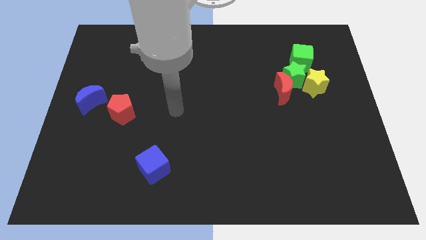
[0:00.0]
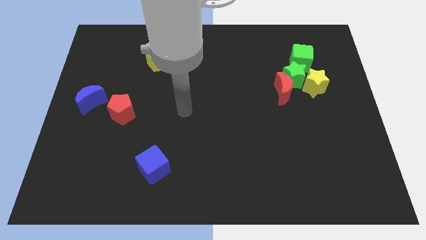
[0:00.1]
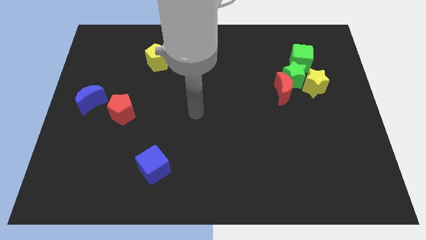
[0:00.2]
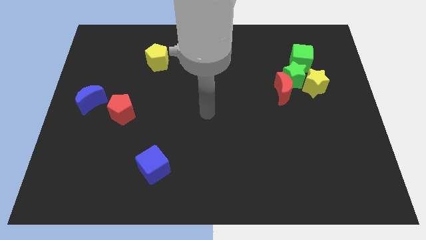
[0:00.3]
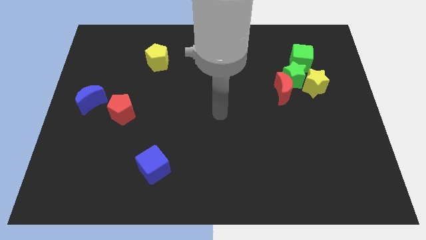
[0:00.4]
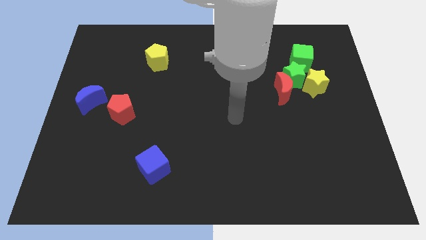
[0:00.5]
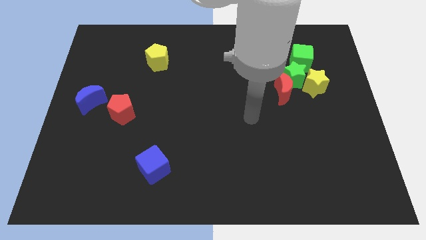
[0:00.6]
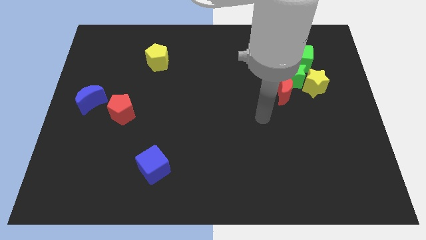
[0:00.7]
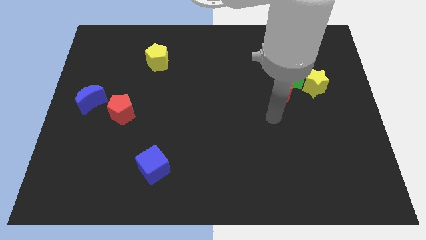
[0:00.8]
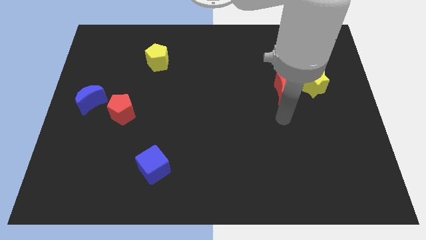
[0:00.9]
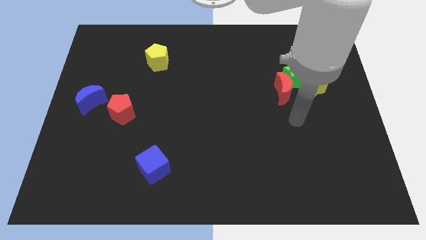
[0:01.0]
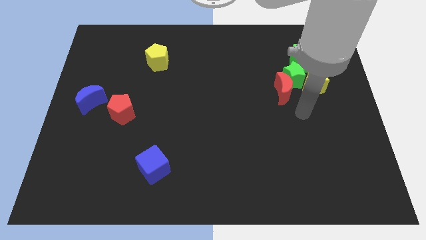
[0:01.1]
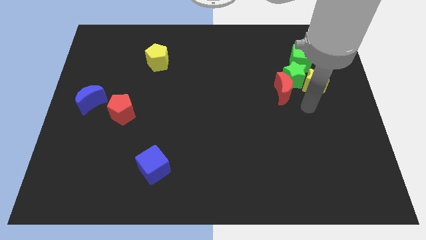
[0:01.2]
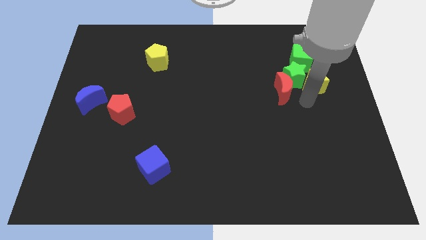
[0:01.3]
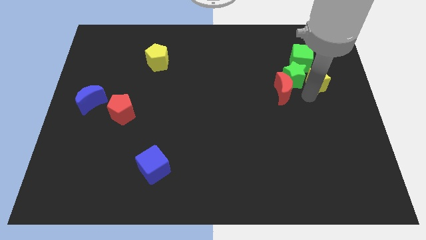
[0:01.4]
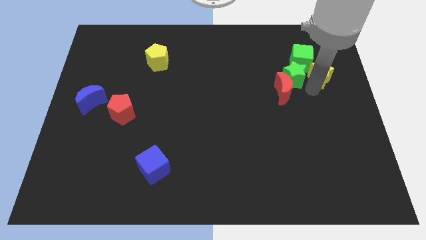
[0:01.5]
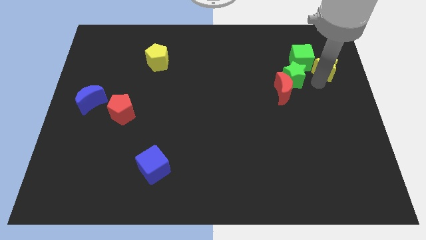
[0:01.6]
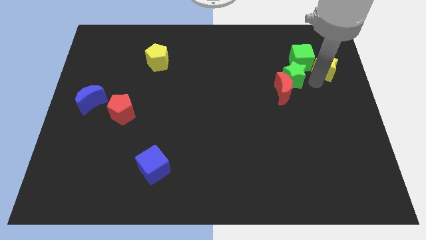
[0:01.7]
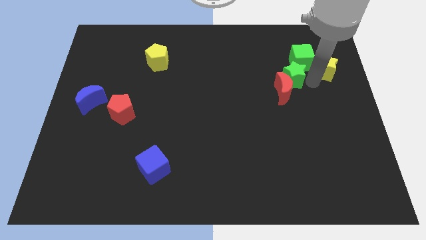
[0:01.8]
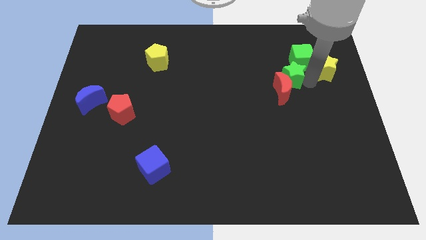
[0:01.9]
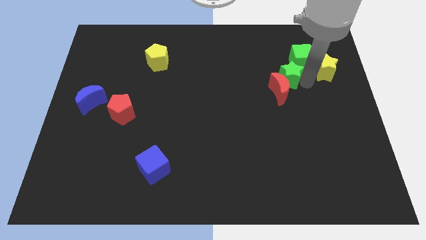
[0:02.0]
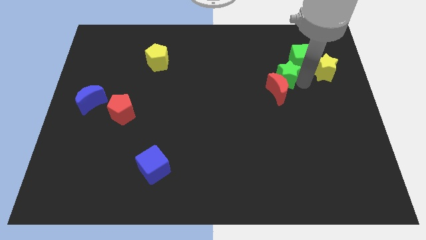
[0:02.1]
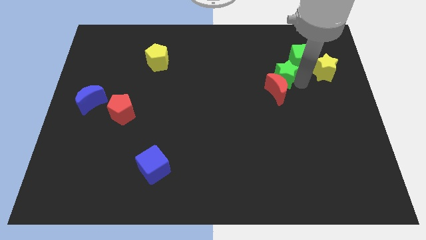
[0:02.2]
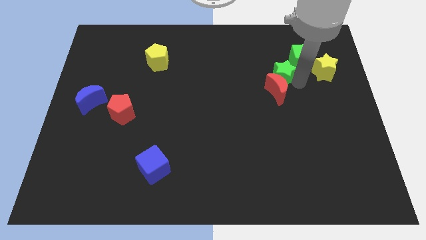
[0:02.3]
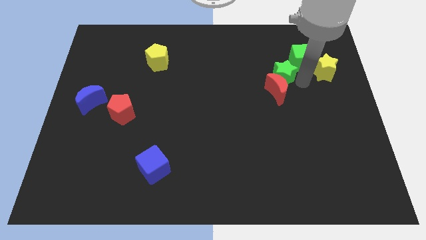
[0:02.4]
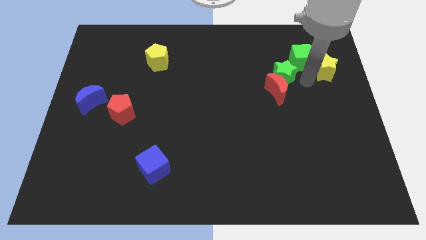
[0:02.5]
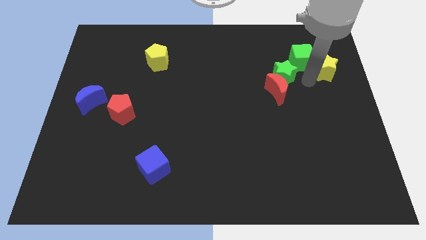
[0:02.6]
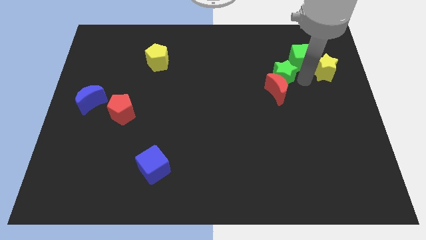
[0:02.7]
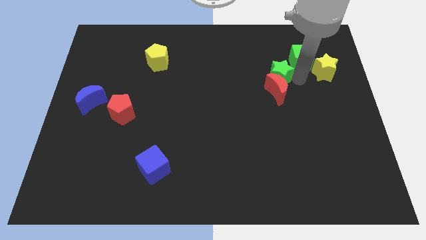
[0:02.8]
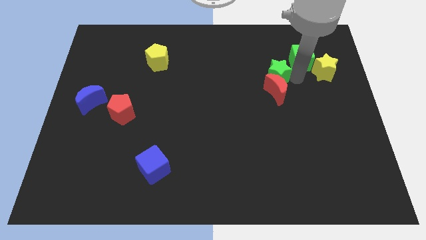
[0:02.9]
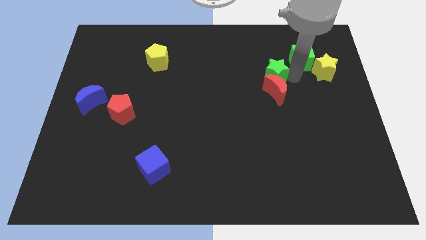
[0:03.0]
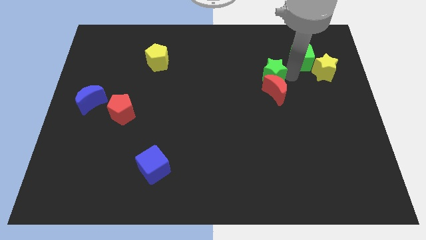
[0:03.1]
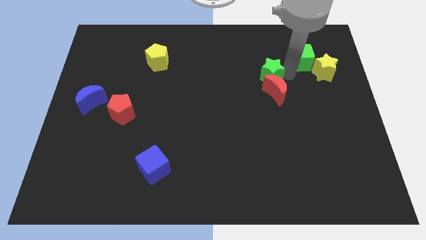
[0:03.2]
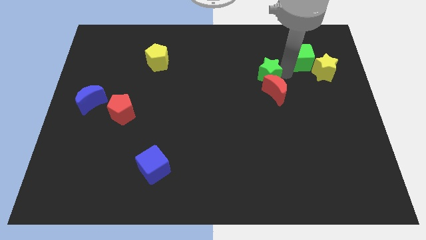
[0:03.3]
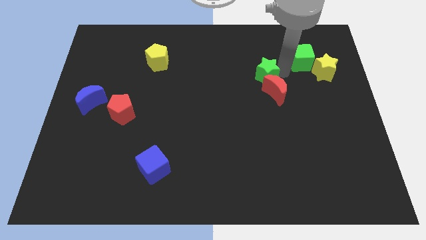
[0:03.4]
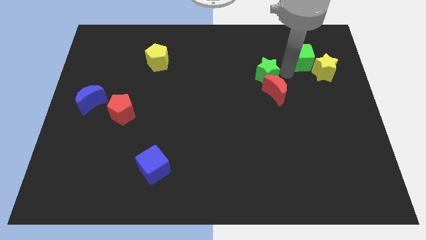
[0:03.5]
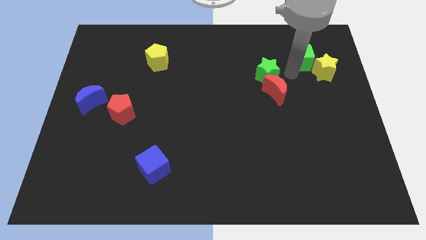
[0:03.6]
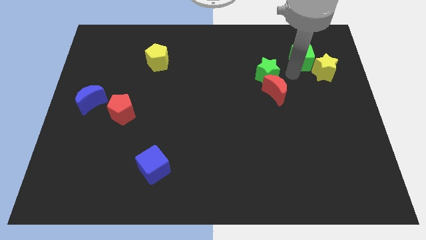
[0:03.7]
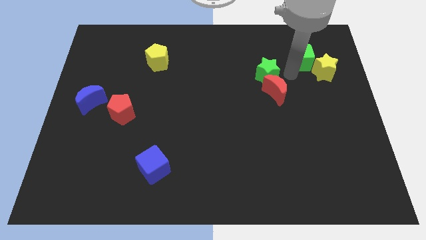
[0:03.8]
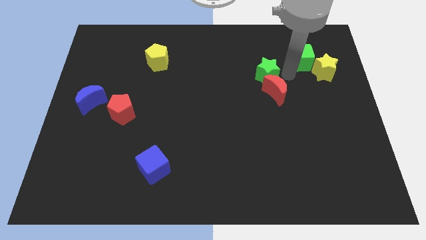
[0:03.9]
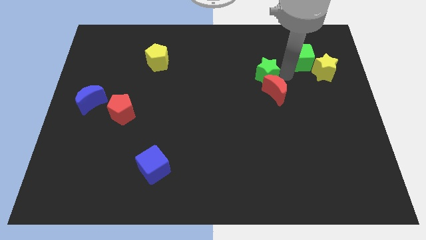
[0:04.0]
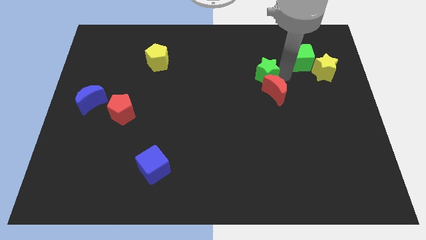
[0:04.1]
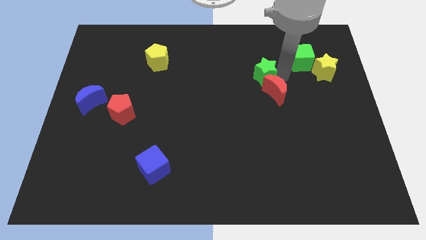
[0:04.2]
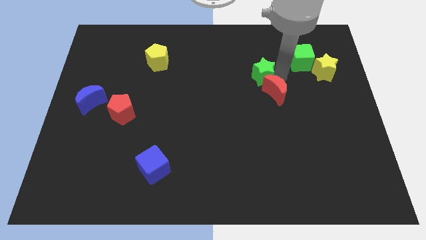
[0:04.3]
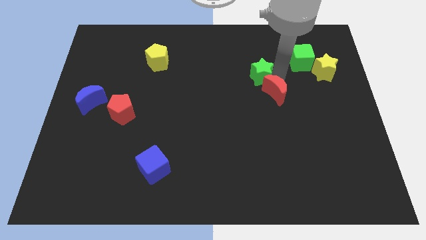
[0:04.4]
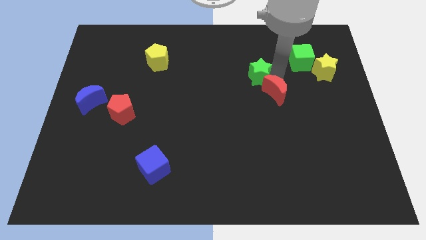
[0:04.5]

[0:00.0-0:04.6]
move the green star away from the group of blocks

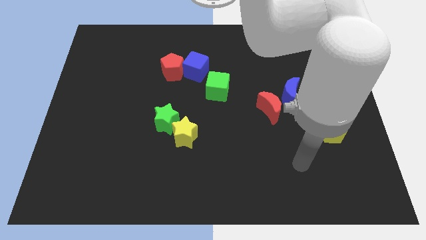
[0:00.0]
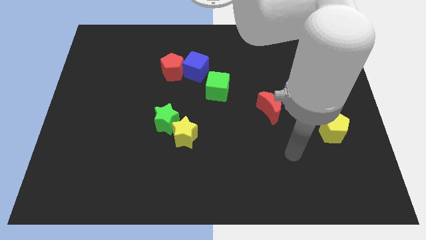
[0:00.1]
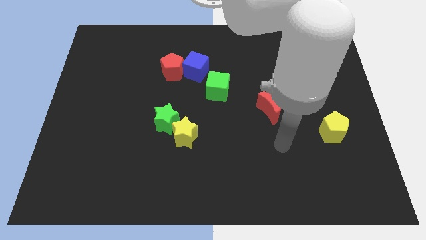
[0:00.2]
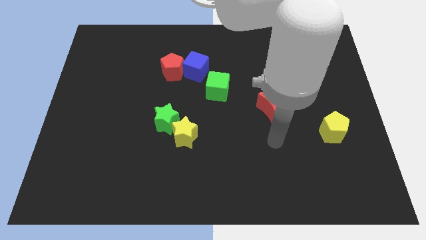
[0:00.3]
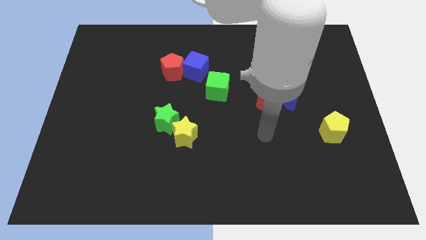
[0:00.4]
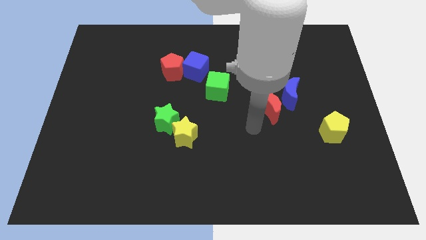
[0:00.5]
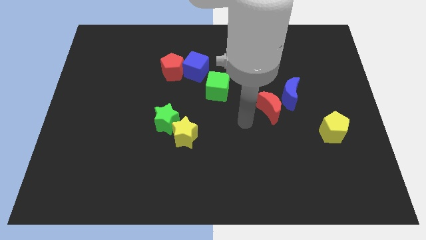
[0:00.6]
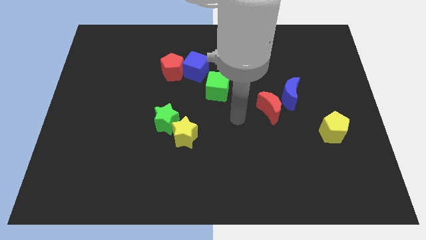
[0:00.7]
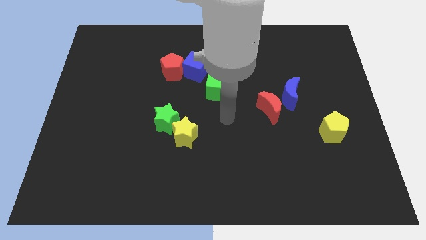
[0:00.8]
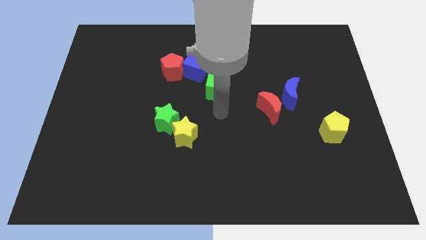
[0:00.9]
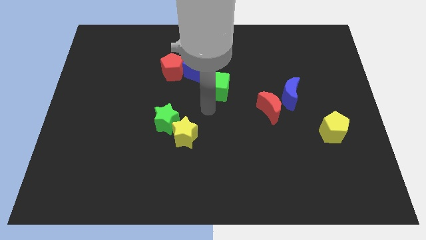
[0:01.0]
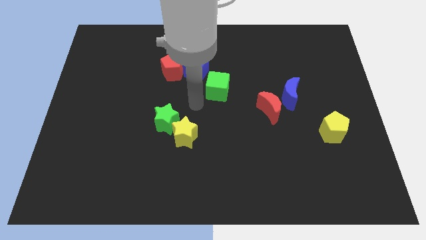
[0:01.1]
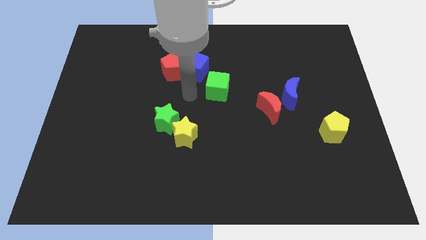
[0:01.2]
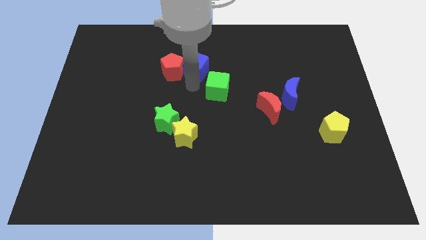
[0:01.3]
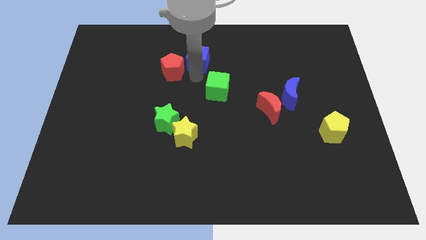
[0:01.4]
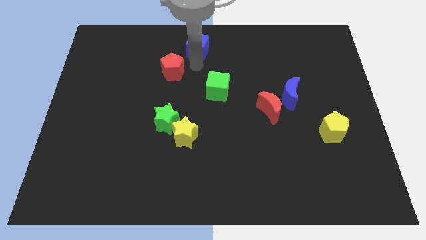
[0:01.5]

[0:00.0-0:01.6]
move the red pentagon away from the blue cube

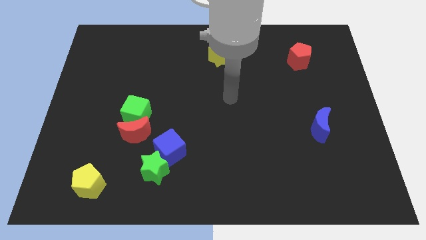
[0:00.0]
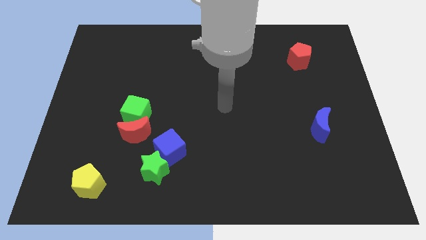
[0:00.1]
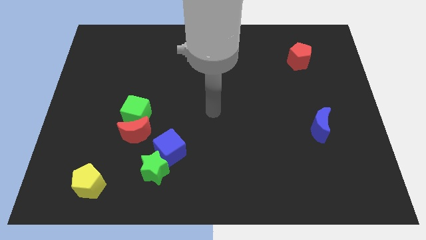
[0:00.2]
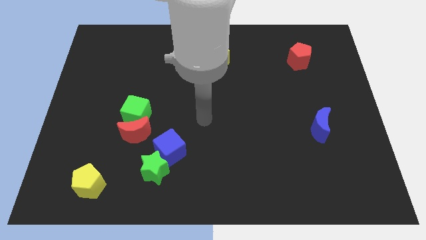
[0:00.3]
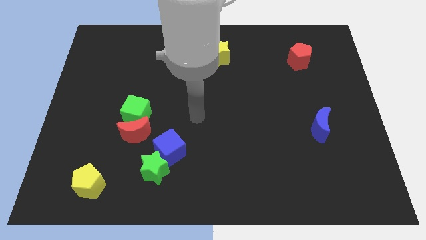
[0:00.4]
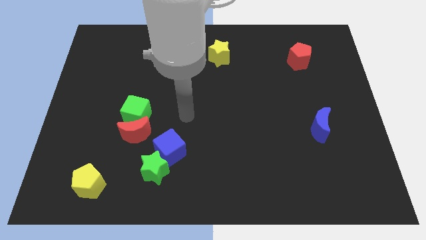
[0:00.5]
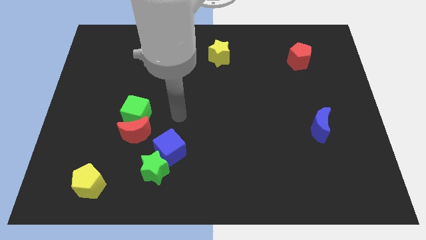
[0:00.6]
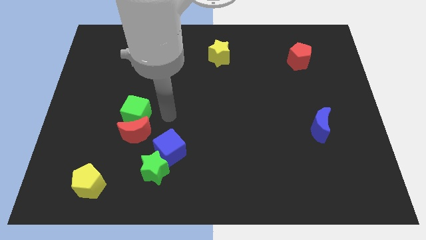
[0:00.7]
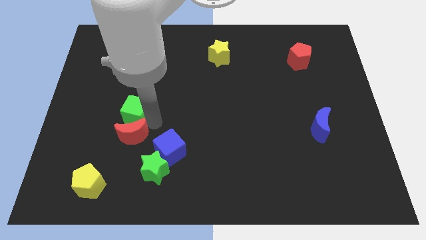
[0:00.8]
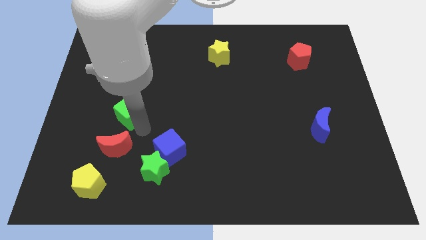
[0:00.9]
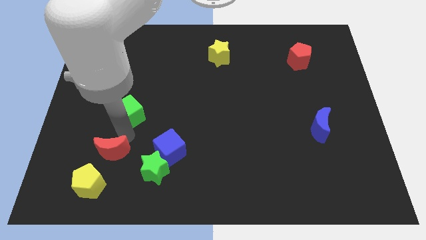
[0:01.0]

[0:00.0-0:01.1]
separate the green cube from the red moon

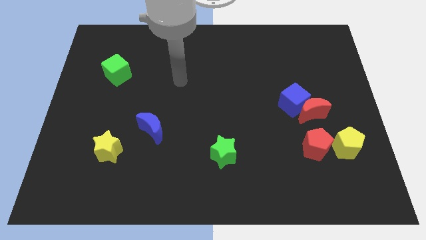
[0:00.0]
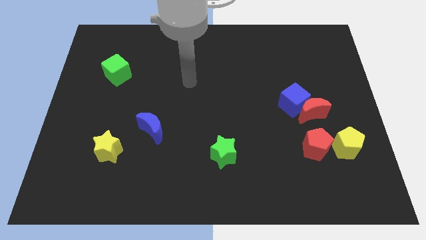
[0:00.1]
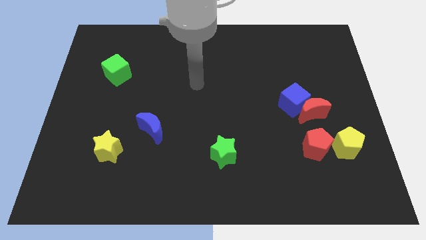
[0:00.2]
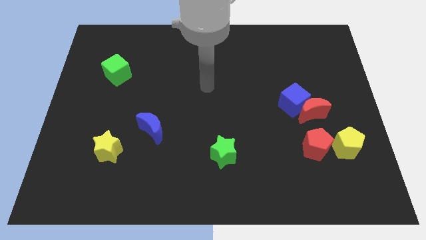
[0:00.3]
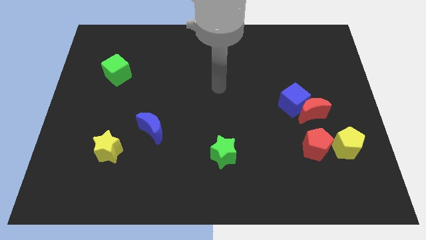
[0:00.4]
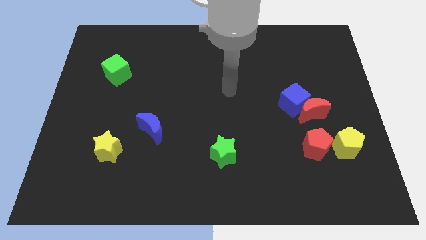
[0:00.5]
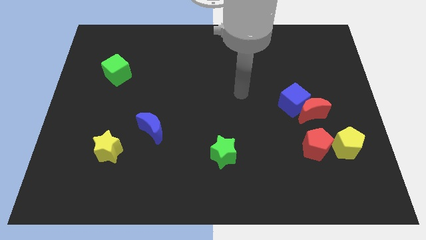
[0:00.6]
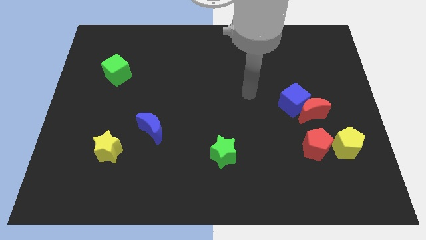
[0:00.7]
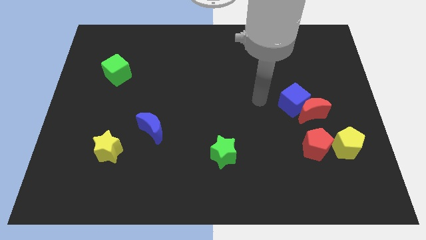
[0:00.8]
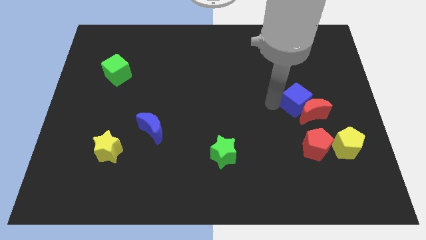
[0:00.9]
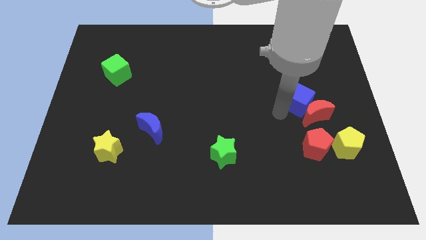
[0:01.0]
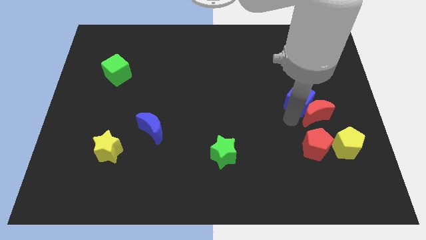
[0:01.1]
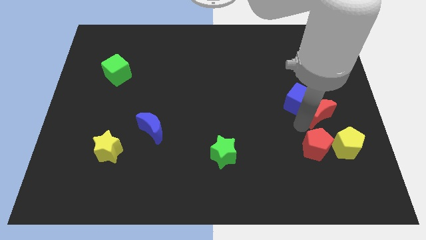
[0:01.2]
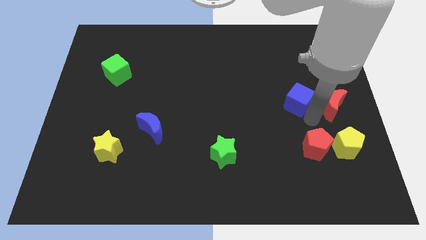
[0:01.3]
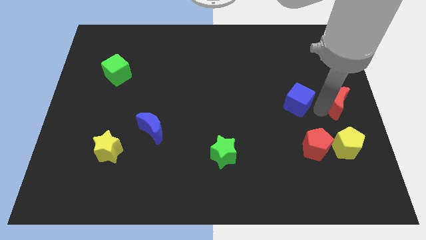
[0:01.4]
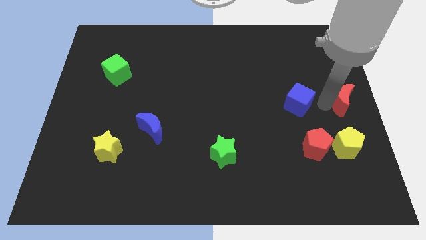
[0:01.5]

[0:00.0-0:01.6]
separate the blue cube from the red moon

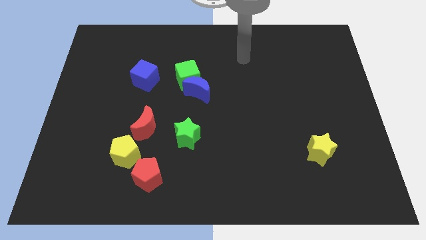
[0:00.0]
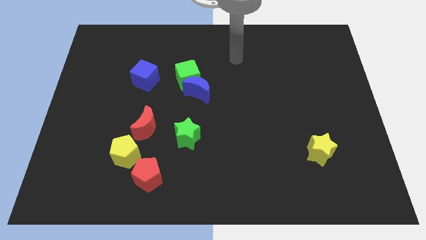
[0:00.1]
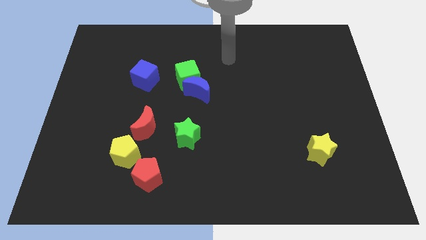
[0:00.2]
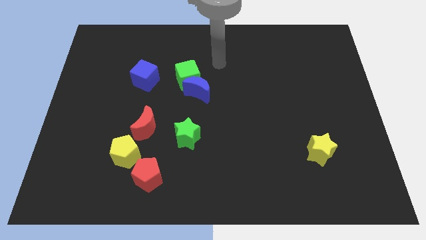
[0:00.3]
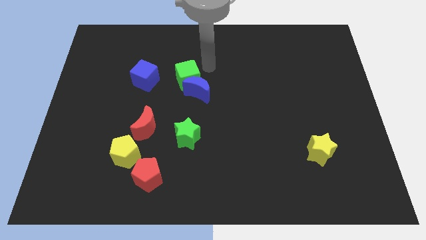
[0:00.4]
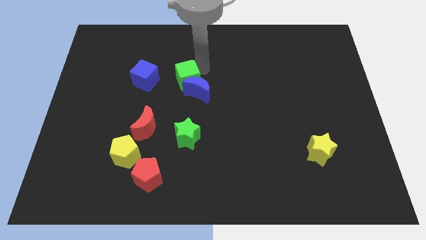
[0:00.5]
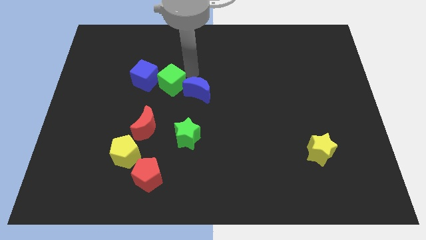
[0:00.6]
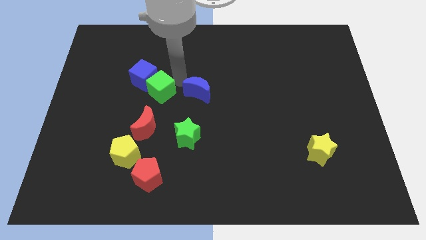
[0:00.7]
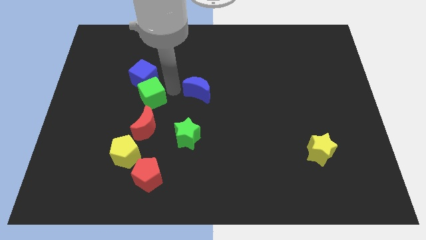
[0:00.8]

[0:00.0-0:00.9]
separate the blue moon from the green cube
